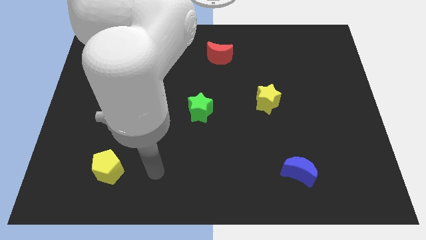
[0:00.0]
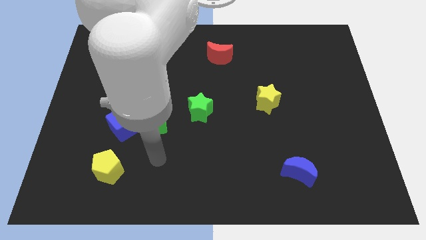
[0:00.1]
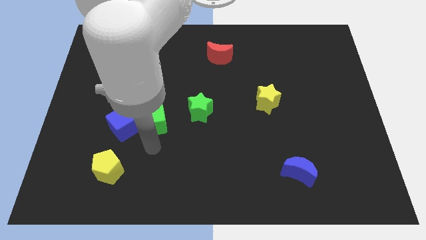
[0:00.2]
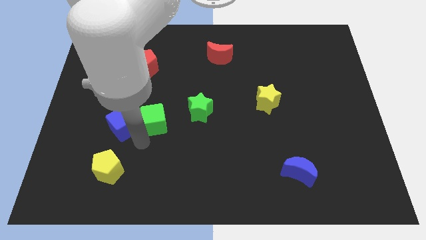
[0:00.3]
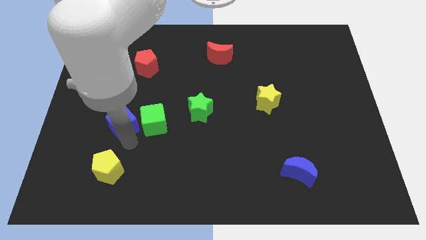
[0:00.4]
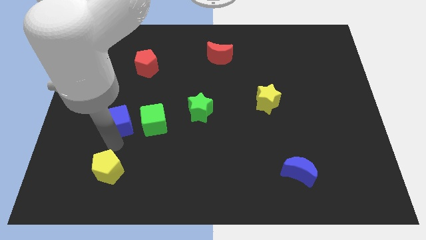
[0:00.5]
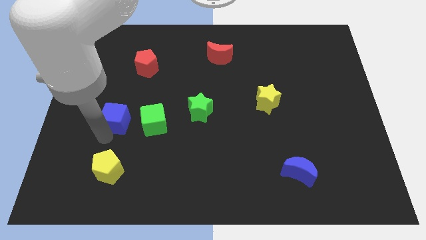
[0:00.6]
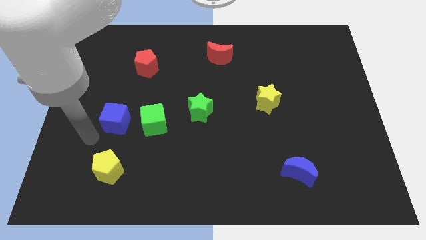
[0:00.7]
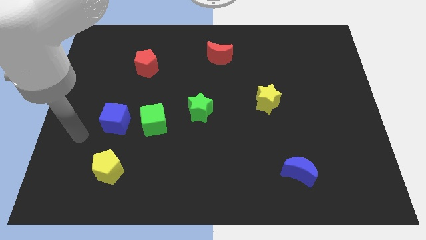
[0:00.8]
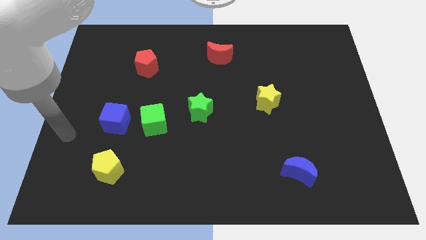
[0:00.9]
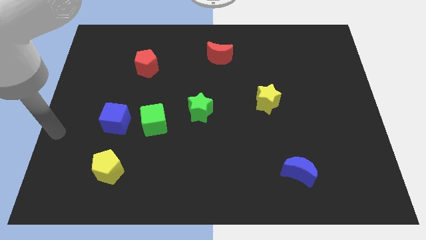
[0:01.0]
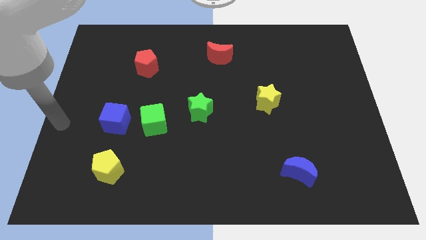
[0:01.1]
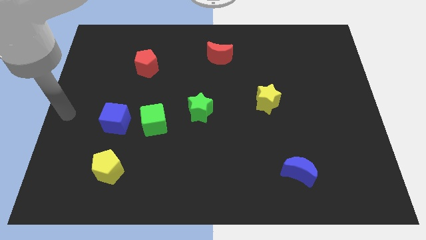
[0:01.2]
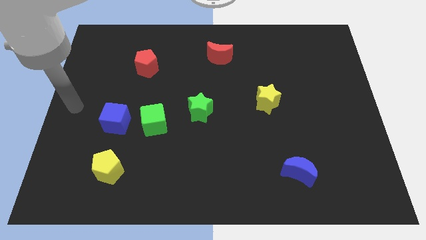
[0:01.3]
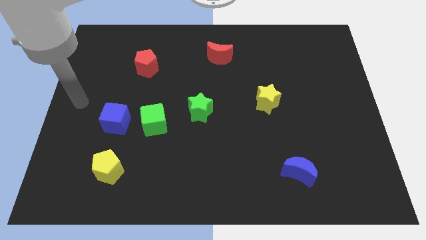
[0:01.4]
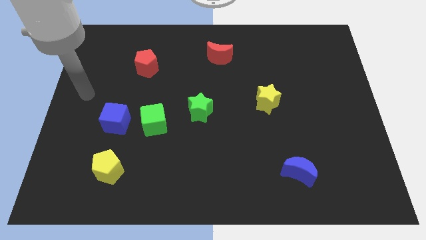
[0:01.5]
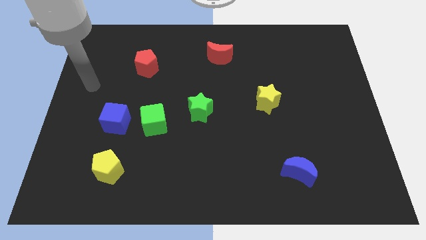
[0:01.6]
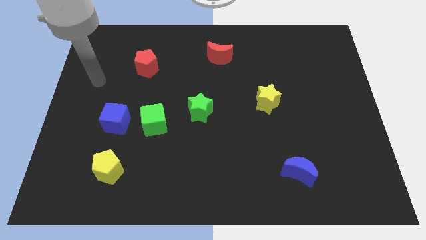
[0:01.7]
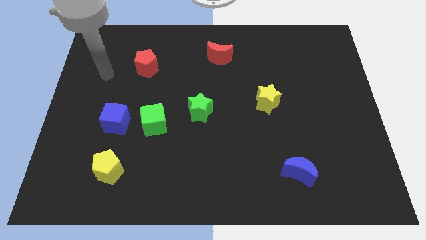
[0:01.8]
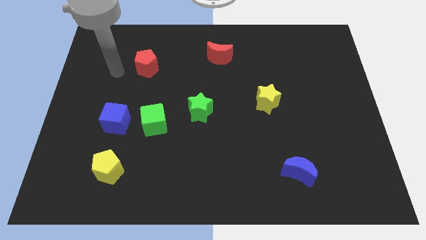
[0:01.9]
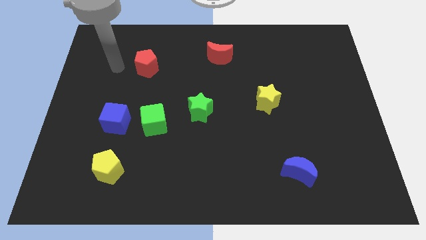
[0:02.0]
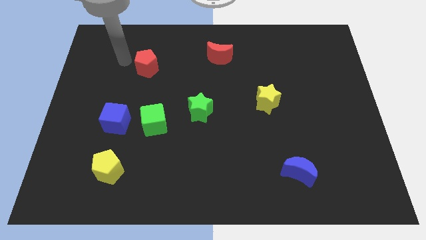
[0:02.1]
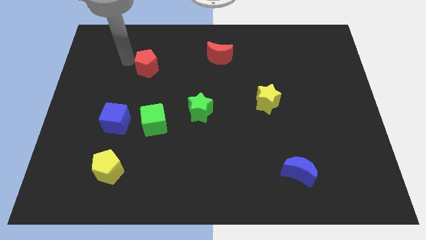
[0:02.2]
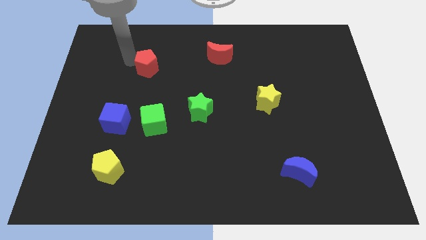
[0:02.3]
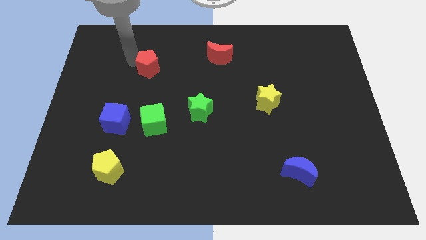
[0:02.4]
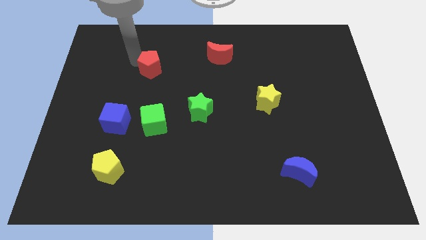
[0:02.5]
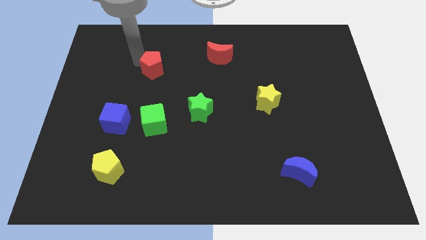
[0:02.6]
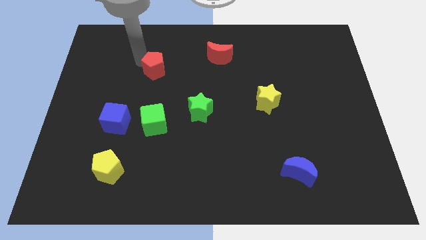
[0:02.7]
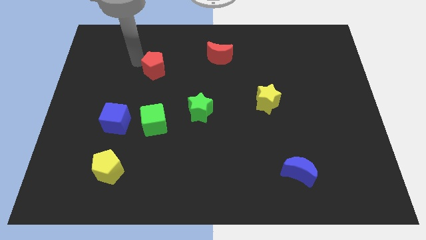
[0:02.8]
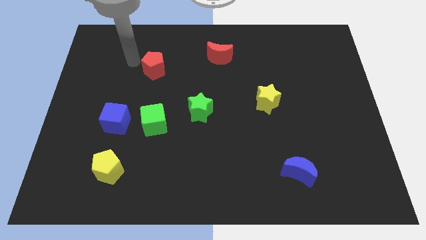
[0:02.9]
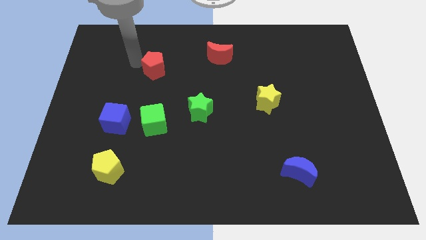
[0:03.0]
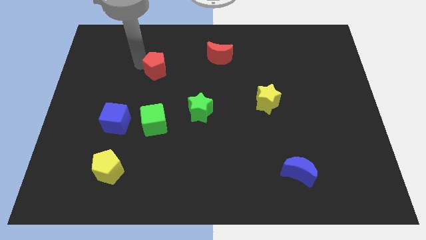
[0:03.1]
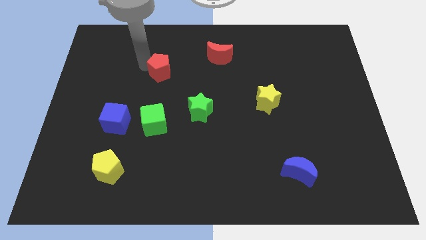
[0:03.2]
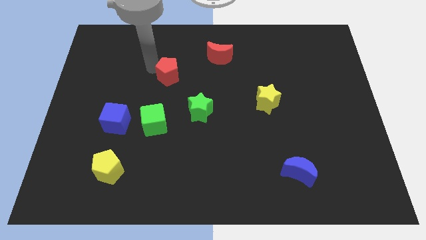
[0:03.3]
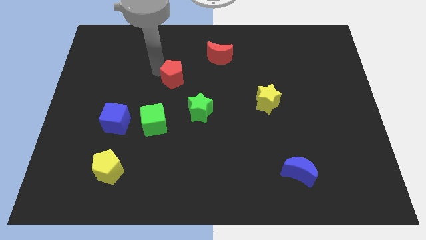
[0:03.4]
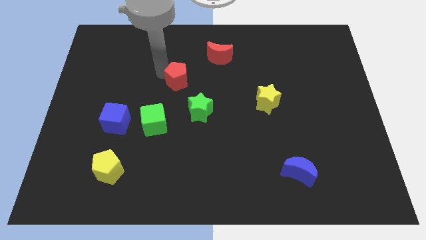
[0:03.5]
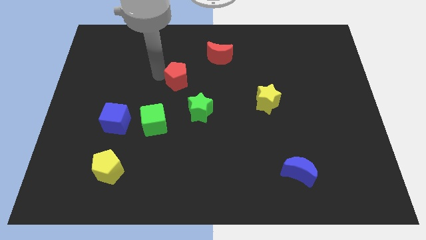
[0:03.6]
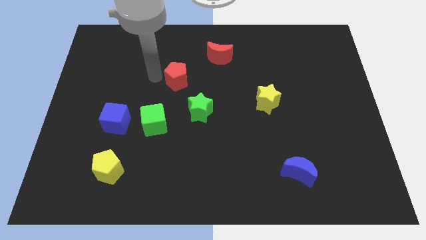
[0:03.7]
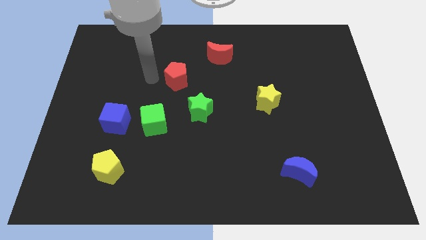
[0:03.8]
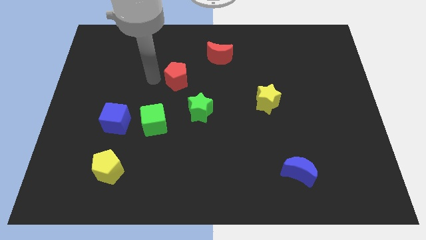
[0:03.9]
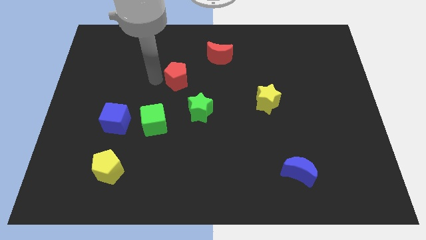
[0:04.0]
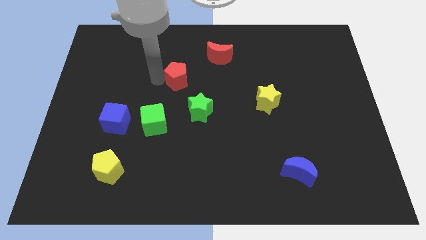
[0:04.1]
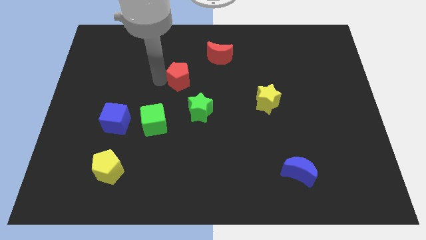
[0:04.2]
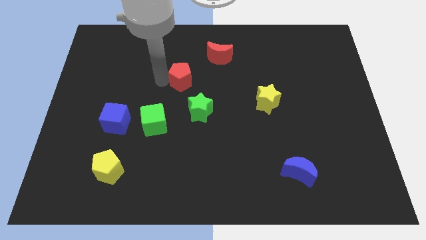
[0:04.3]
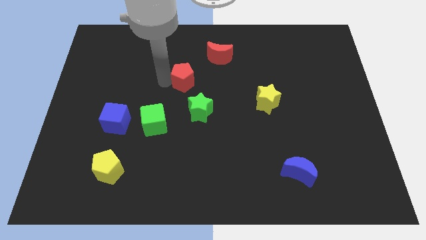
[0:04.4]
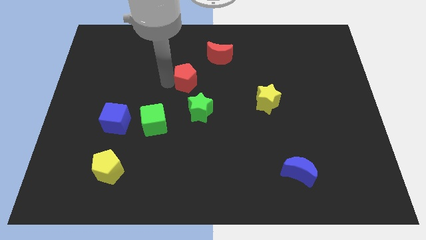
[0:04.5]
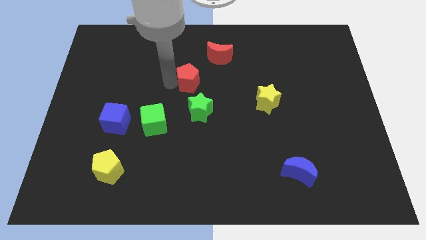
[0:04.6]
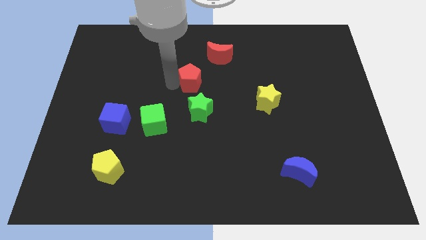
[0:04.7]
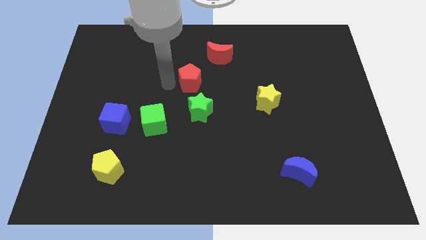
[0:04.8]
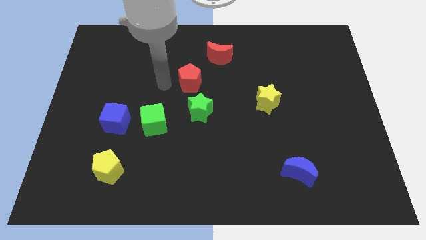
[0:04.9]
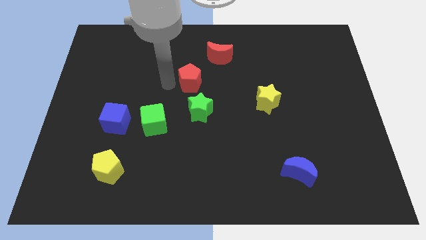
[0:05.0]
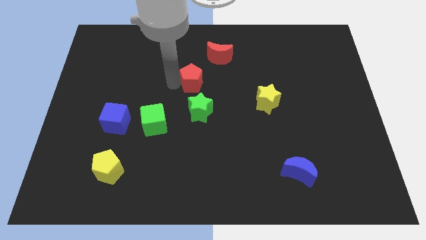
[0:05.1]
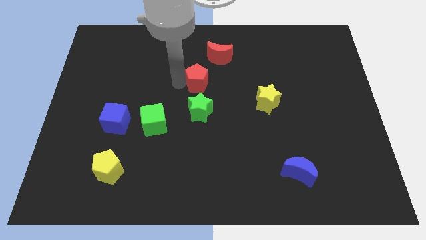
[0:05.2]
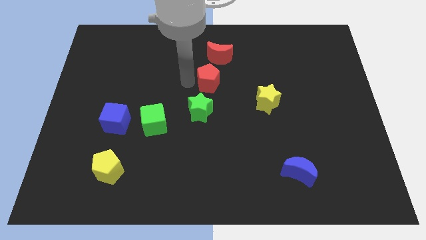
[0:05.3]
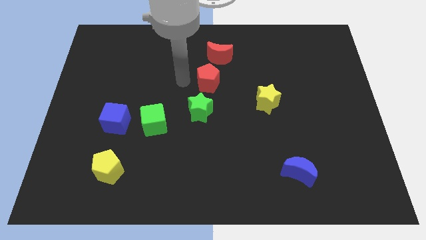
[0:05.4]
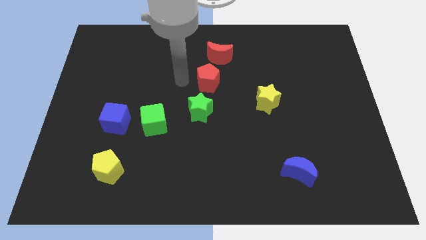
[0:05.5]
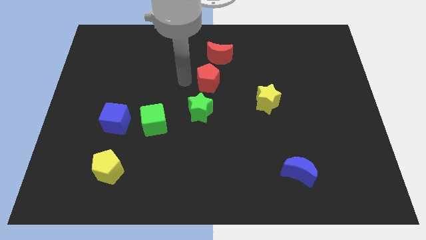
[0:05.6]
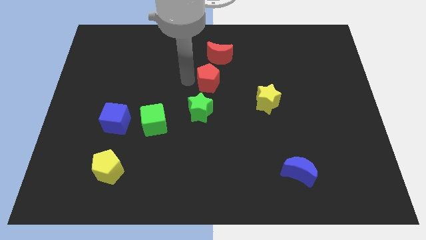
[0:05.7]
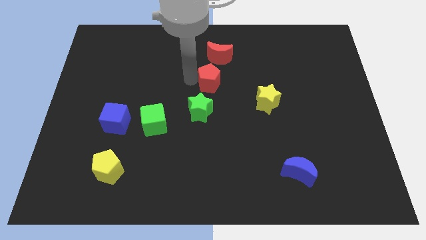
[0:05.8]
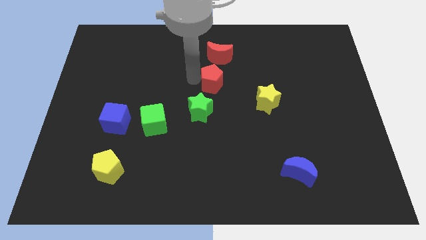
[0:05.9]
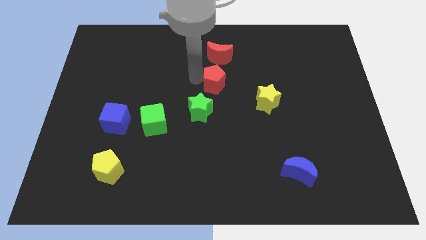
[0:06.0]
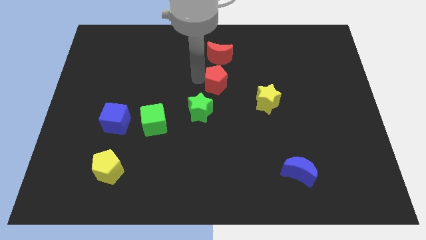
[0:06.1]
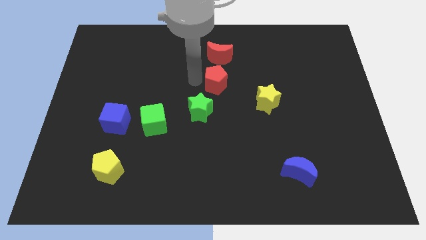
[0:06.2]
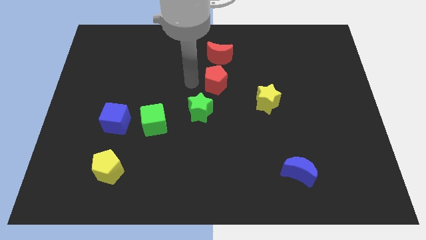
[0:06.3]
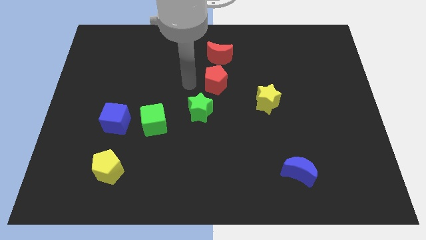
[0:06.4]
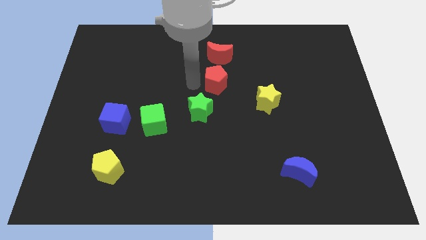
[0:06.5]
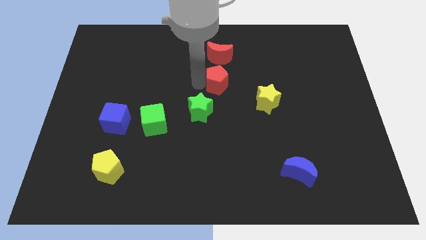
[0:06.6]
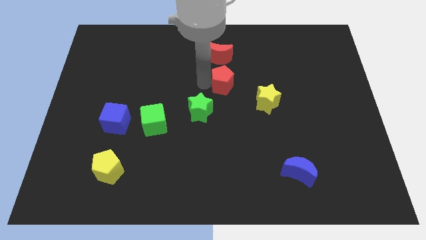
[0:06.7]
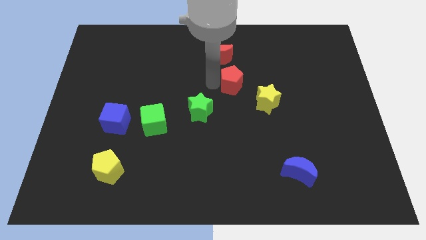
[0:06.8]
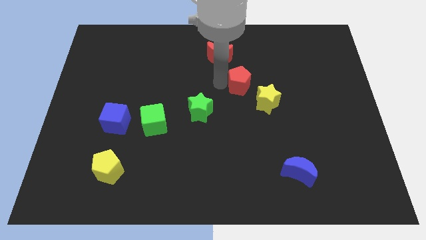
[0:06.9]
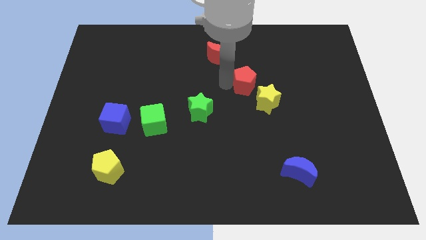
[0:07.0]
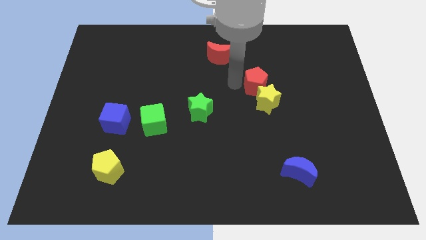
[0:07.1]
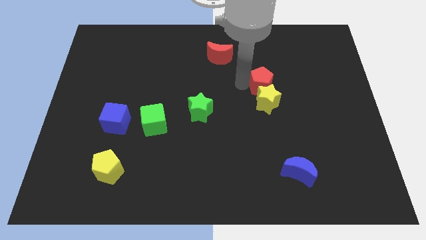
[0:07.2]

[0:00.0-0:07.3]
move the red pentagon to the top right side of the yellow star
